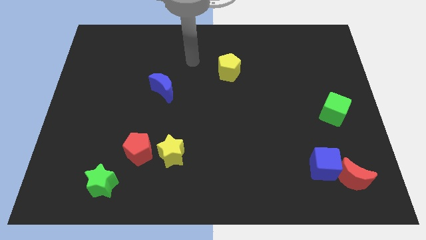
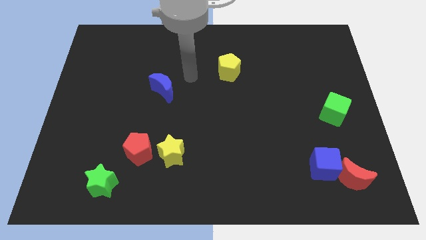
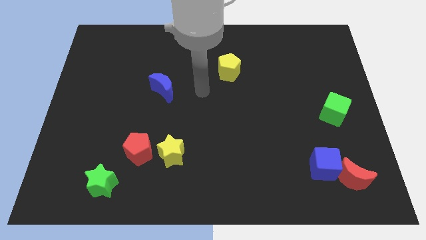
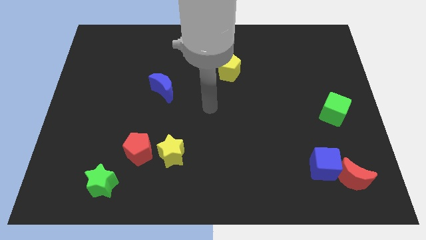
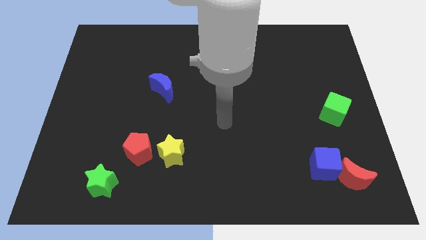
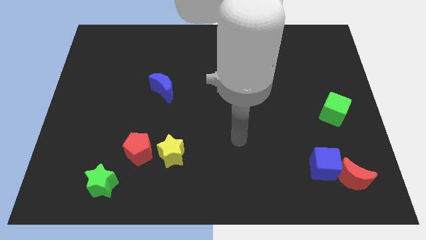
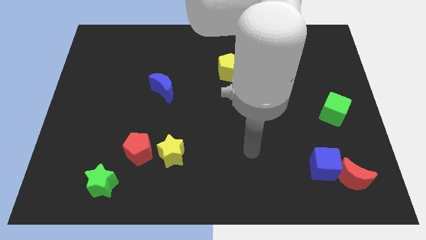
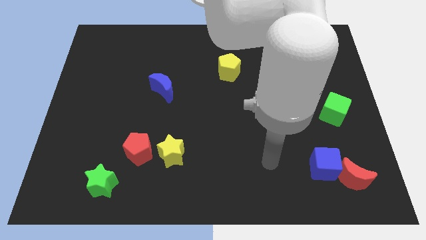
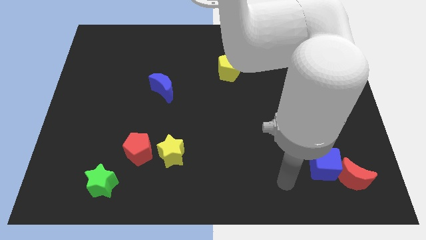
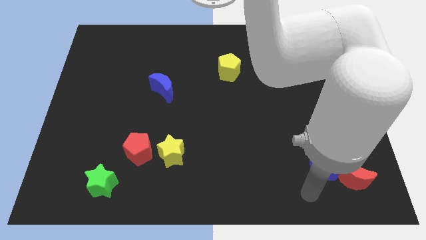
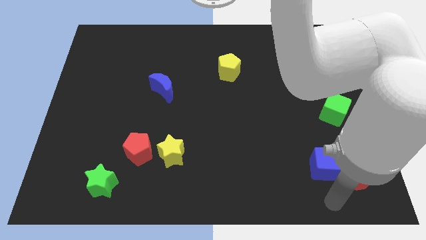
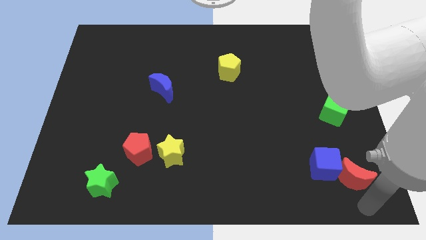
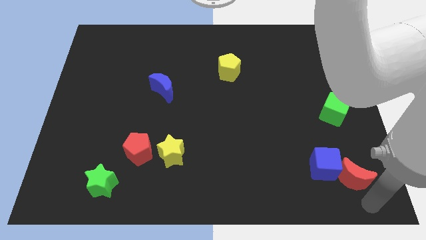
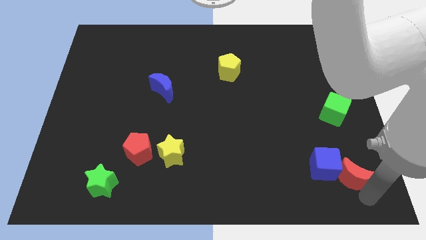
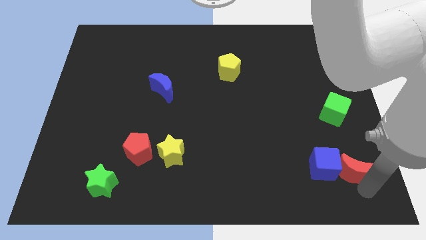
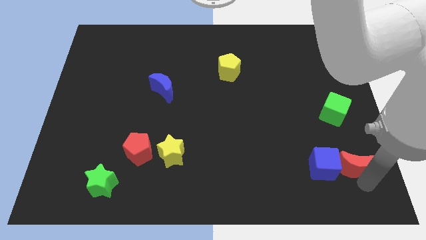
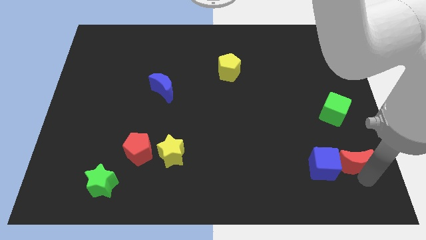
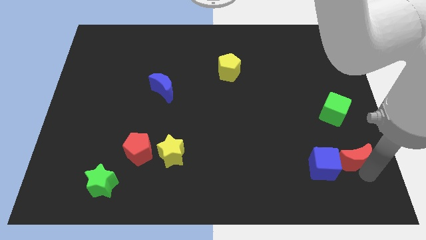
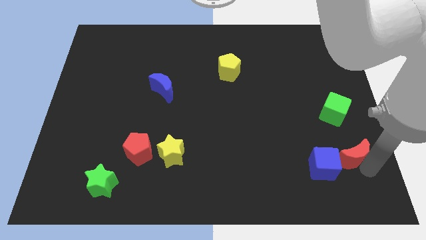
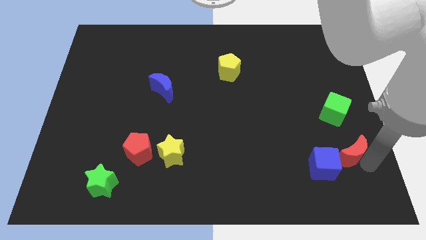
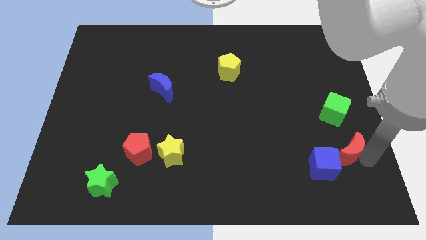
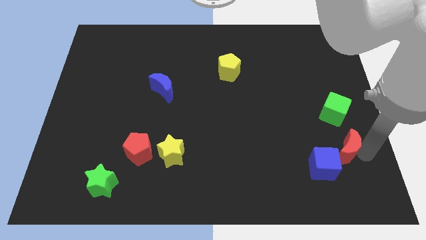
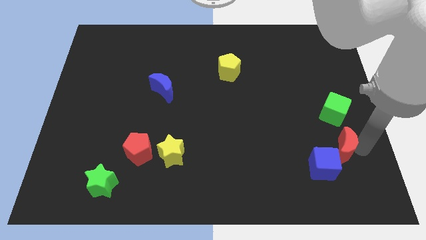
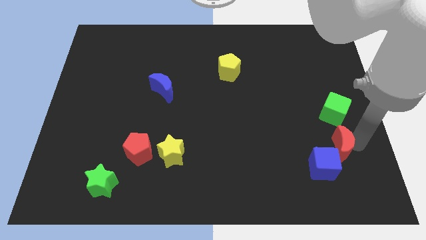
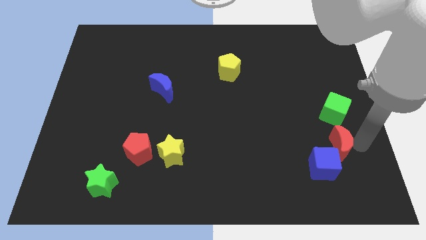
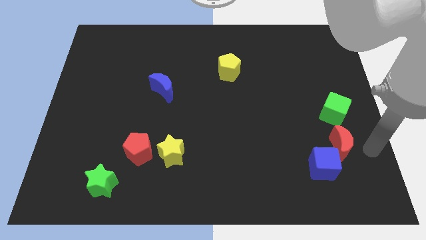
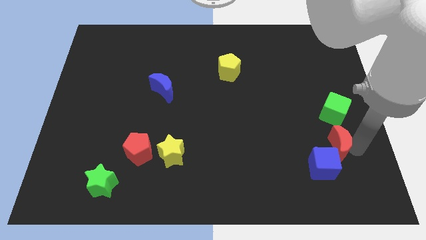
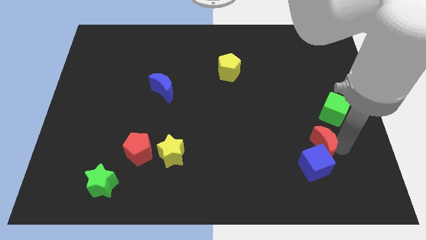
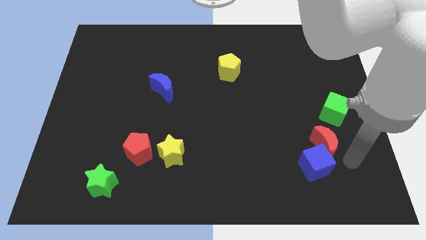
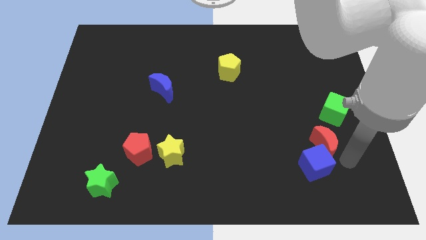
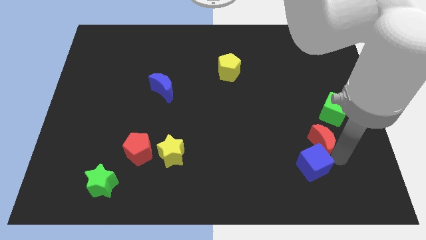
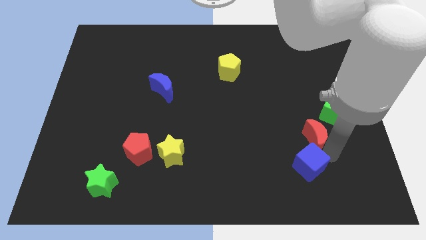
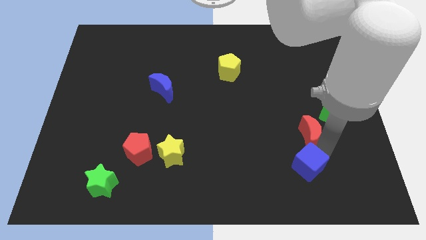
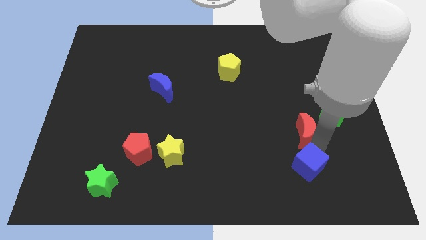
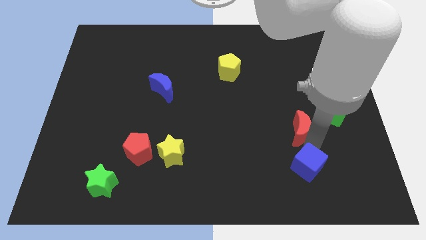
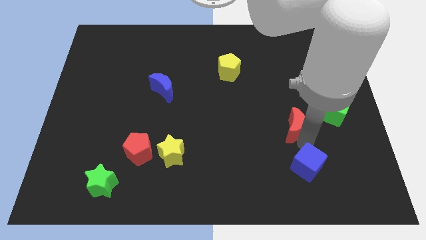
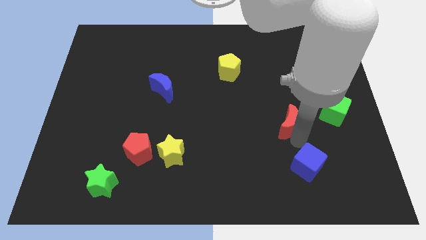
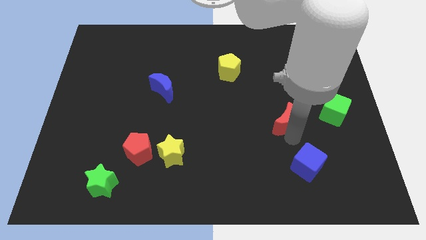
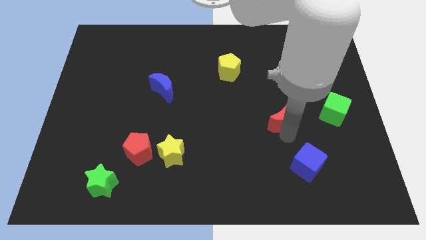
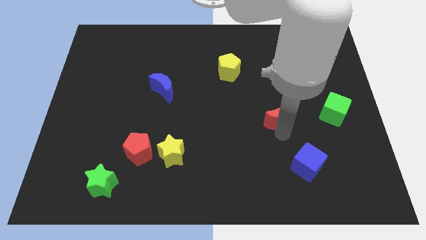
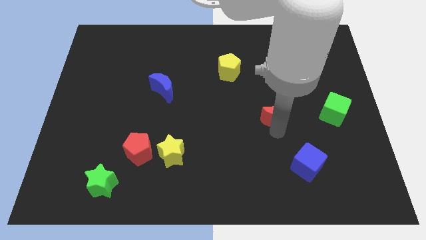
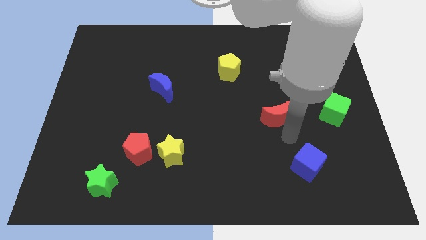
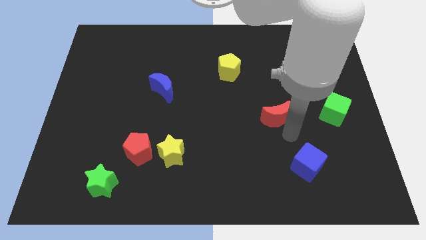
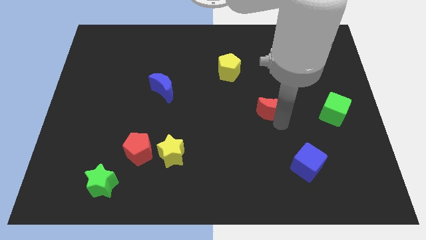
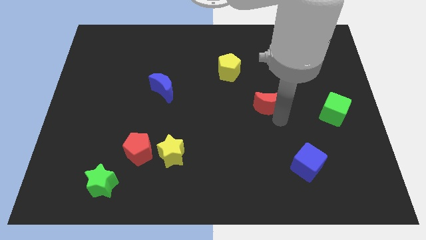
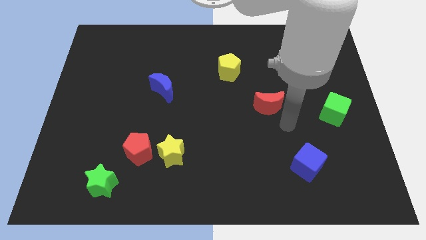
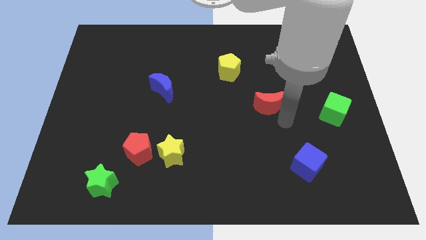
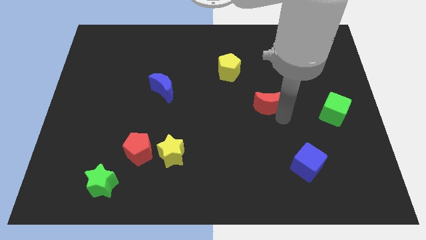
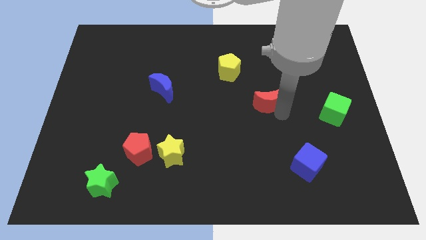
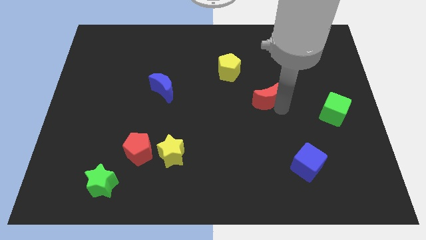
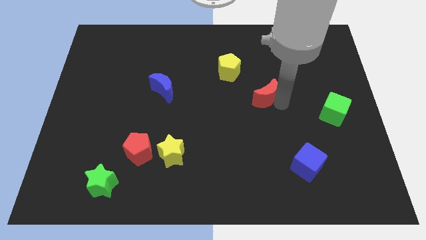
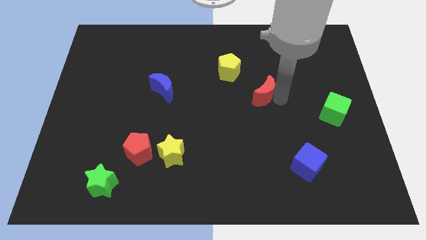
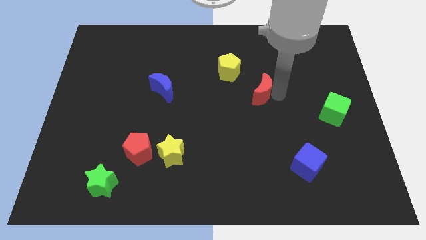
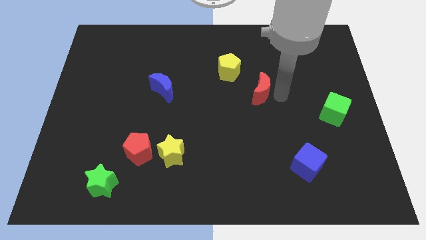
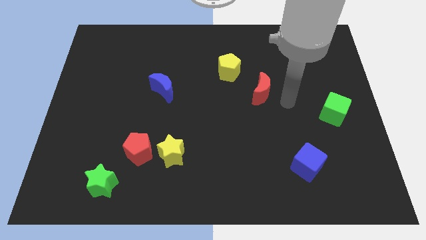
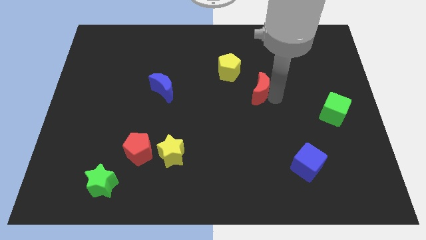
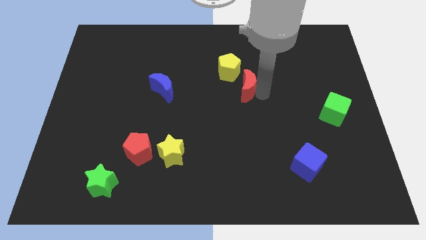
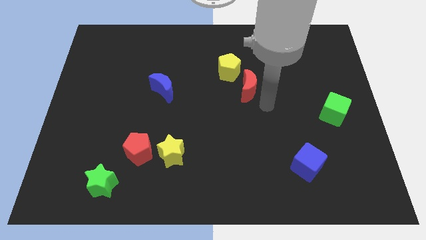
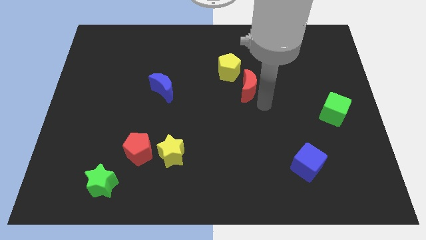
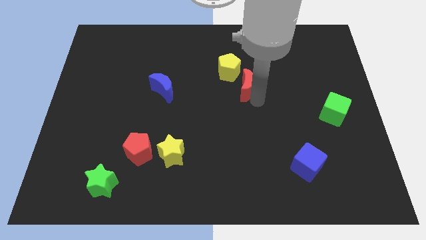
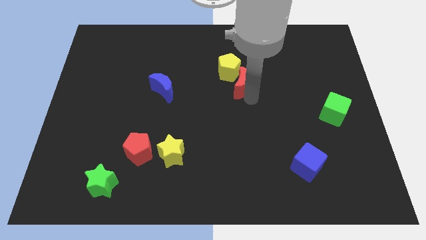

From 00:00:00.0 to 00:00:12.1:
slide the red moon to the yellow pentagon
